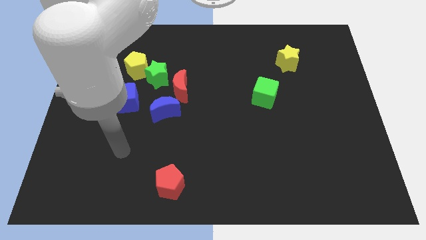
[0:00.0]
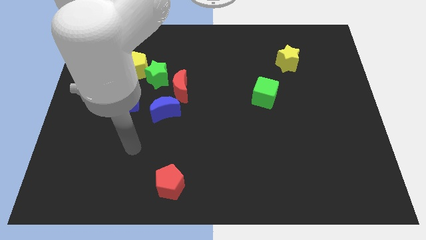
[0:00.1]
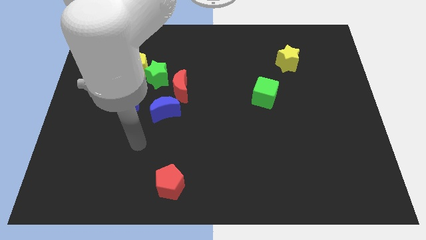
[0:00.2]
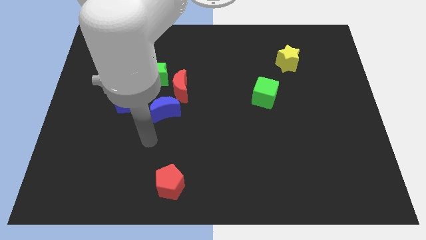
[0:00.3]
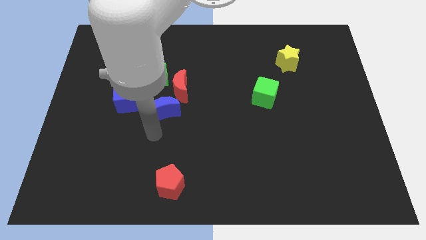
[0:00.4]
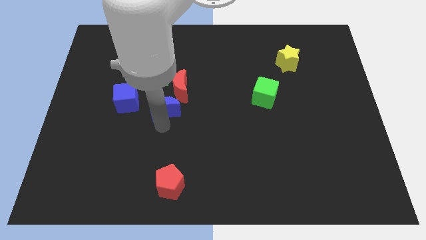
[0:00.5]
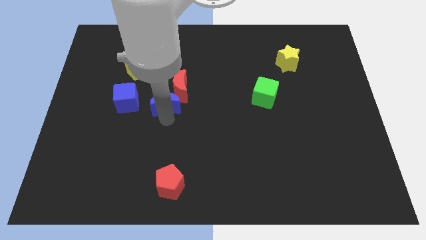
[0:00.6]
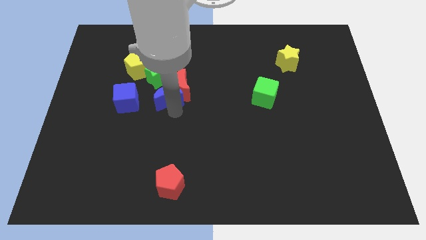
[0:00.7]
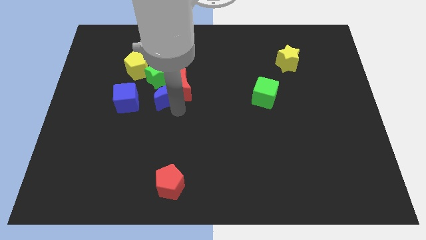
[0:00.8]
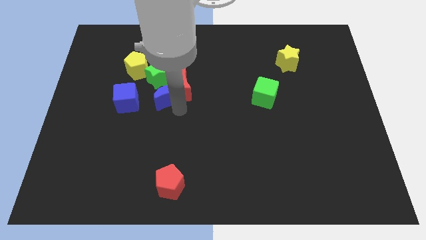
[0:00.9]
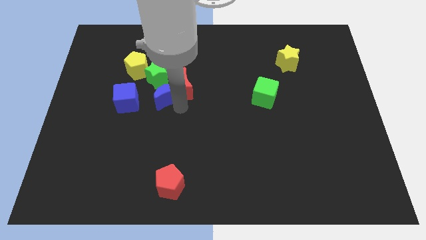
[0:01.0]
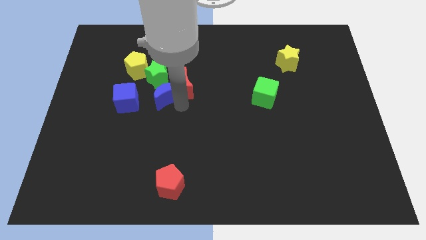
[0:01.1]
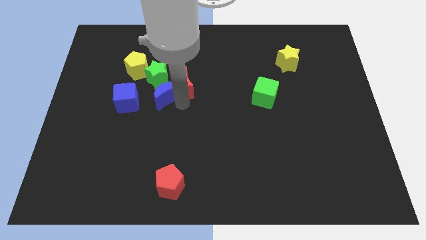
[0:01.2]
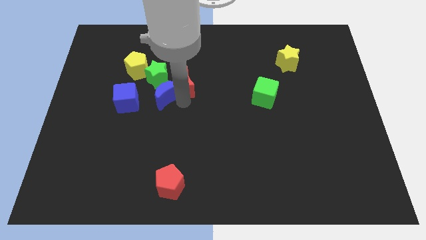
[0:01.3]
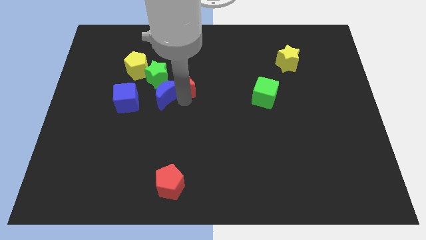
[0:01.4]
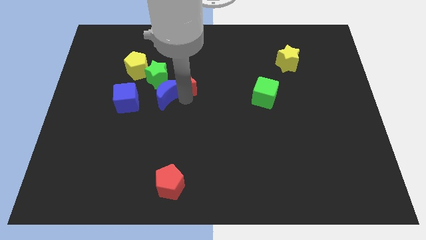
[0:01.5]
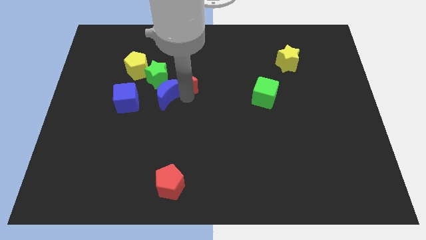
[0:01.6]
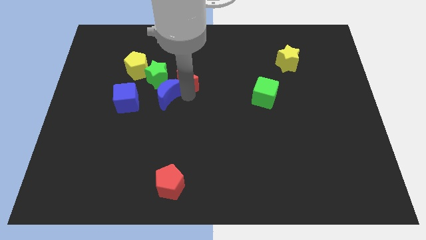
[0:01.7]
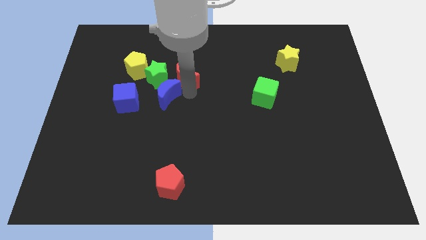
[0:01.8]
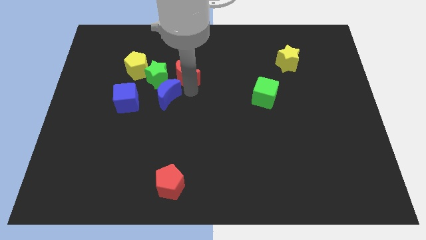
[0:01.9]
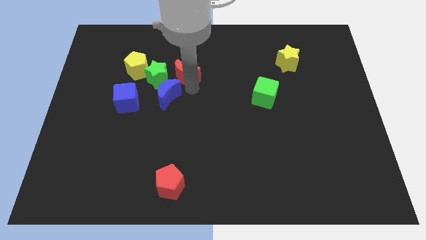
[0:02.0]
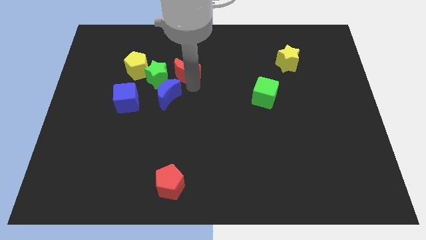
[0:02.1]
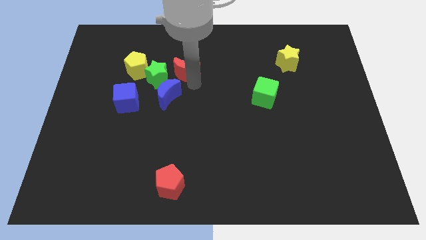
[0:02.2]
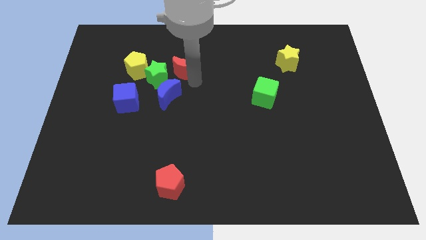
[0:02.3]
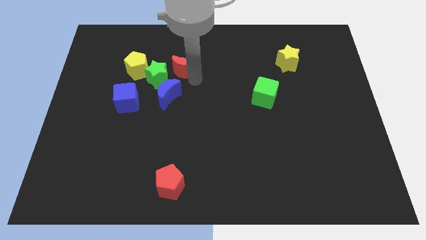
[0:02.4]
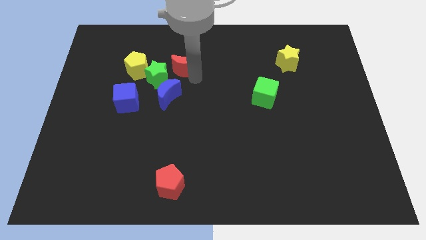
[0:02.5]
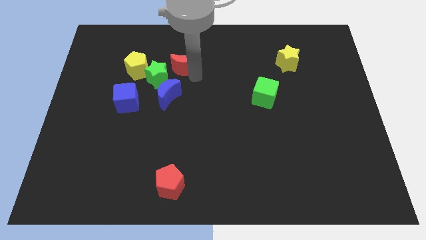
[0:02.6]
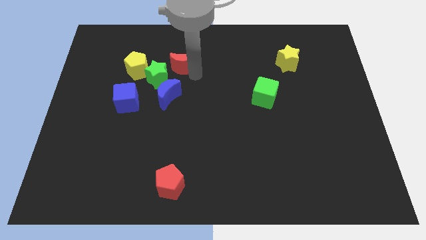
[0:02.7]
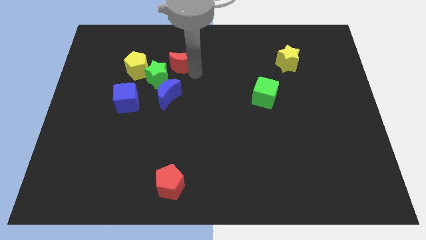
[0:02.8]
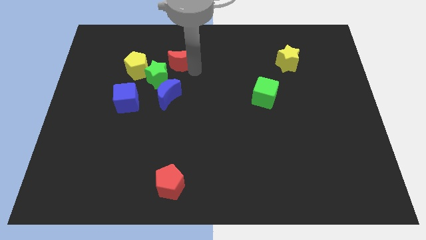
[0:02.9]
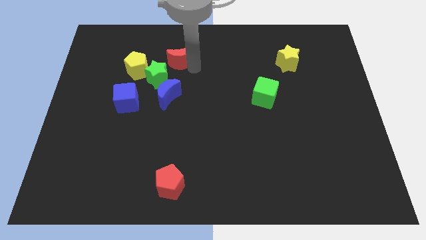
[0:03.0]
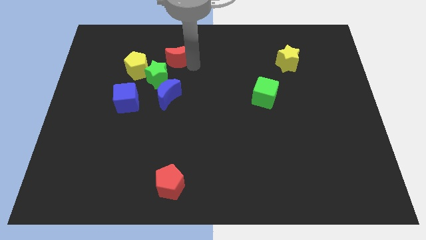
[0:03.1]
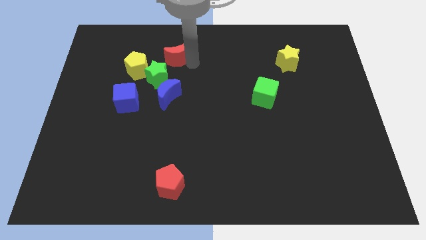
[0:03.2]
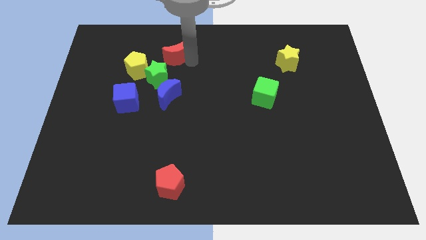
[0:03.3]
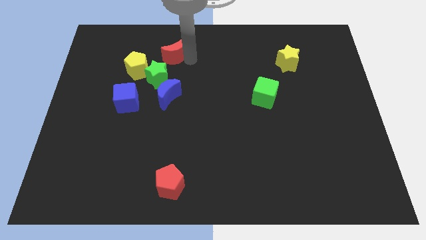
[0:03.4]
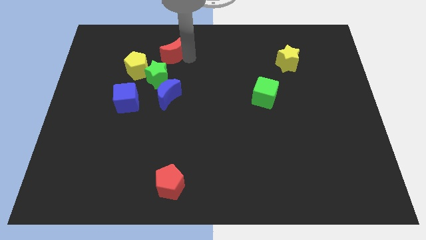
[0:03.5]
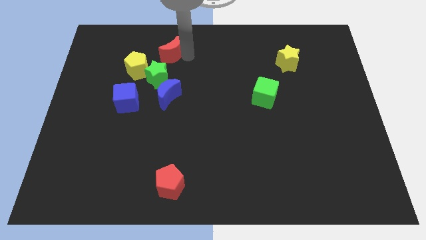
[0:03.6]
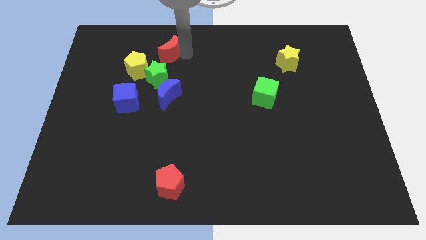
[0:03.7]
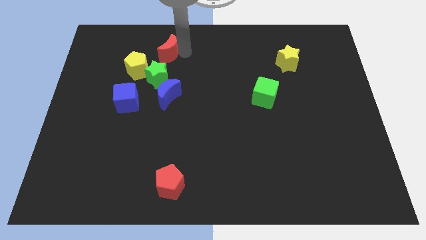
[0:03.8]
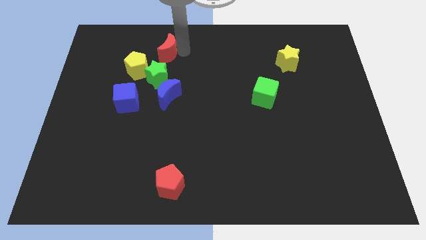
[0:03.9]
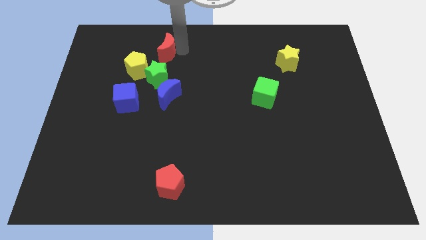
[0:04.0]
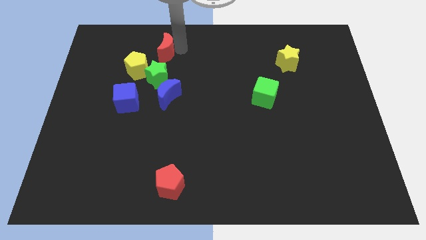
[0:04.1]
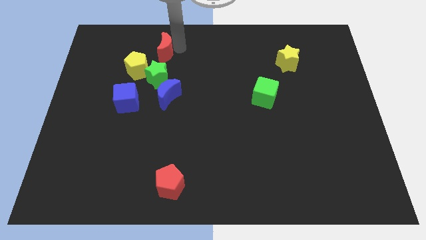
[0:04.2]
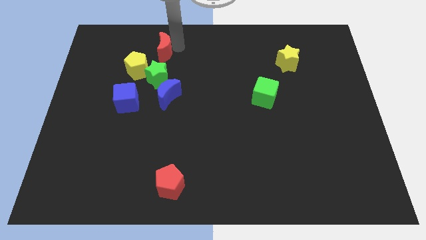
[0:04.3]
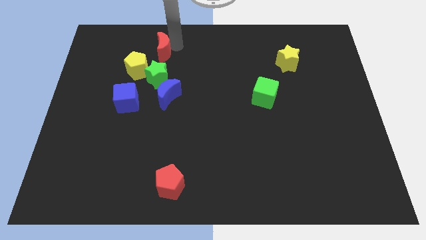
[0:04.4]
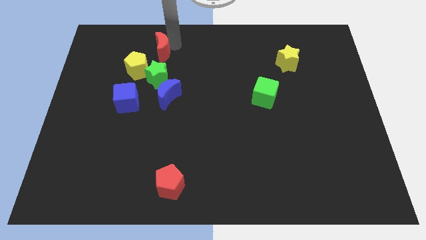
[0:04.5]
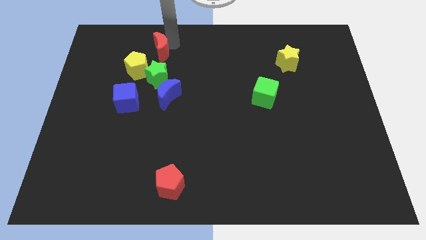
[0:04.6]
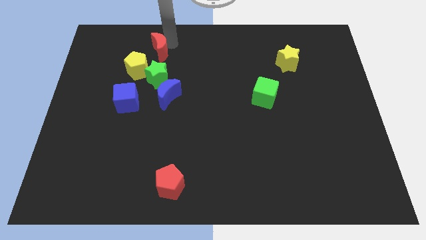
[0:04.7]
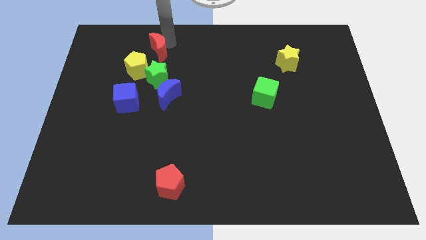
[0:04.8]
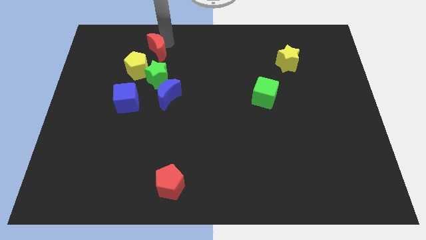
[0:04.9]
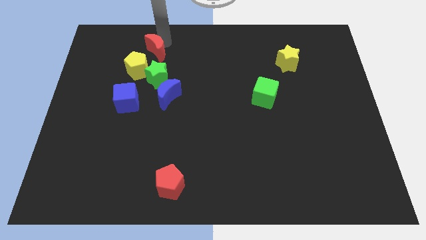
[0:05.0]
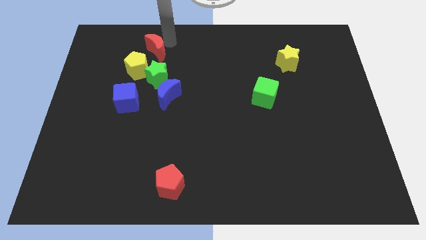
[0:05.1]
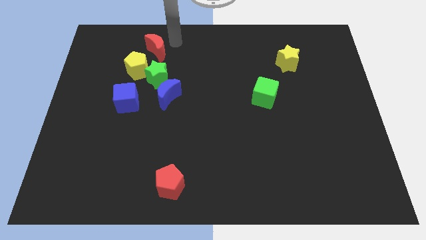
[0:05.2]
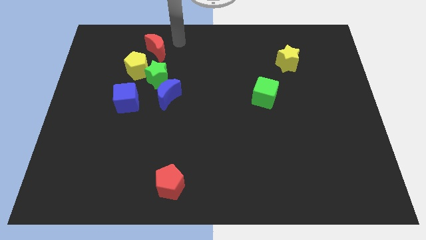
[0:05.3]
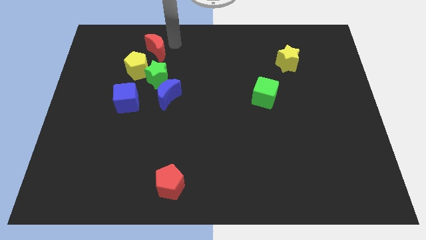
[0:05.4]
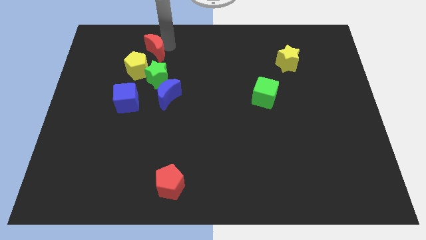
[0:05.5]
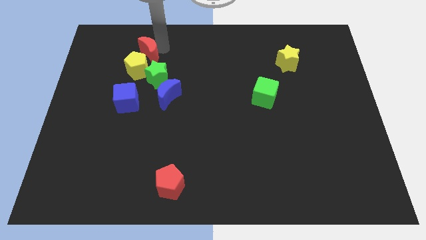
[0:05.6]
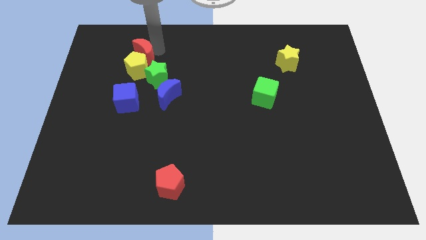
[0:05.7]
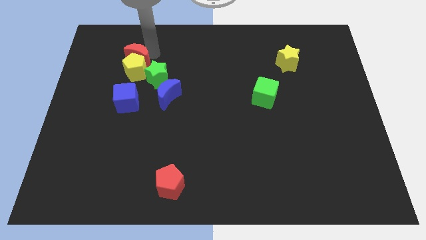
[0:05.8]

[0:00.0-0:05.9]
push the red moon to the top left of the yellow pentagon

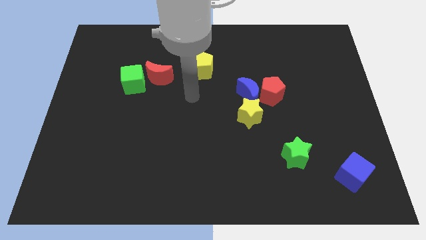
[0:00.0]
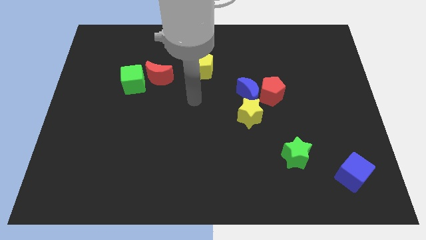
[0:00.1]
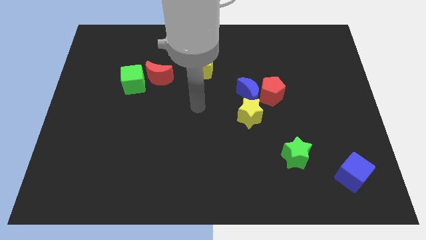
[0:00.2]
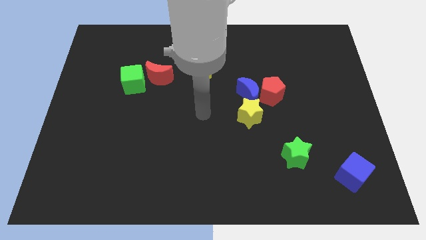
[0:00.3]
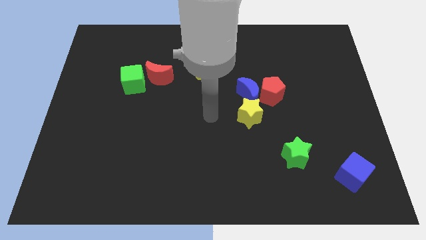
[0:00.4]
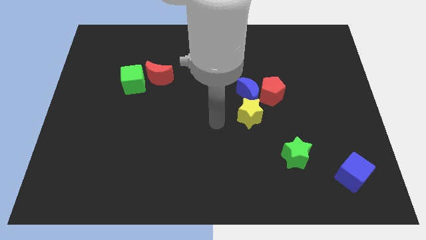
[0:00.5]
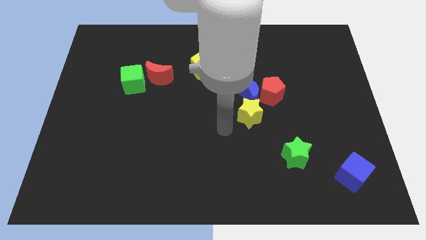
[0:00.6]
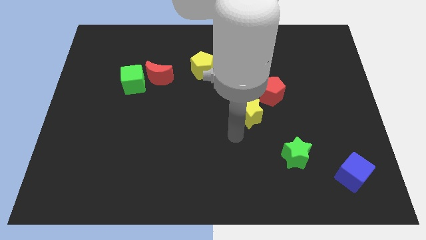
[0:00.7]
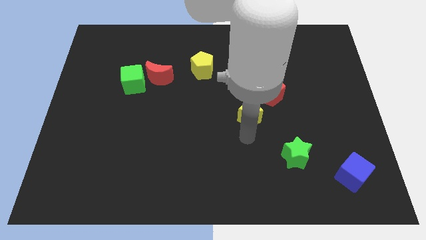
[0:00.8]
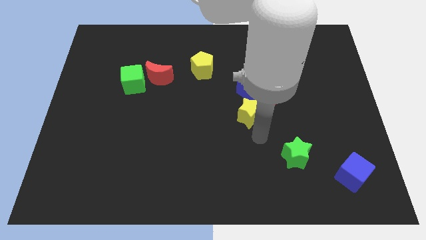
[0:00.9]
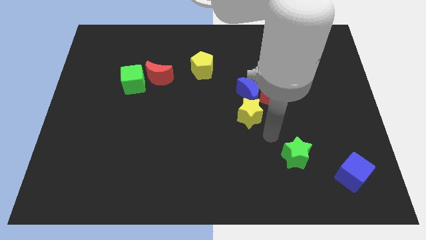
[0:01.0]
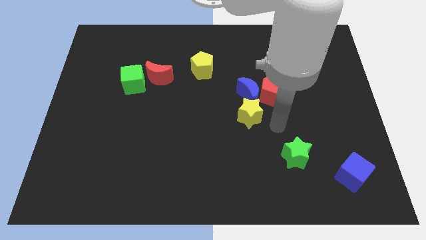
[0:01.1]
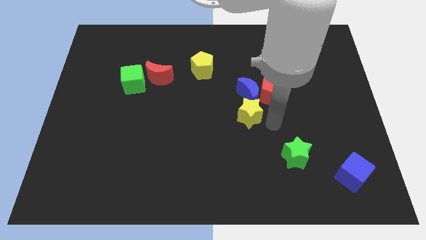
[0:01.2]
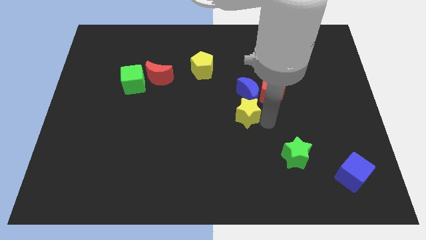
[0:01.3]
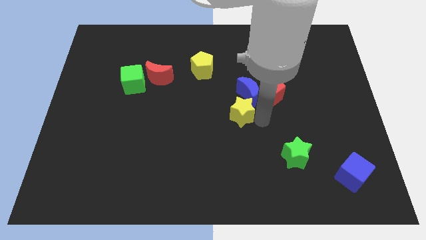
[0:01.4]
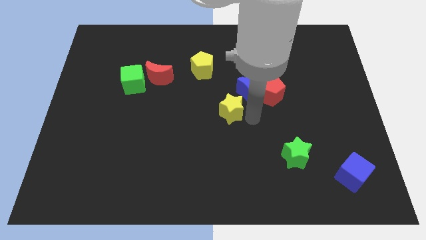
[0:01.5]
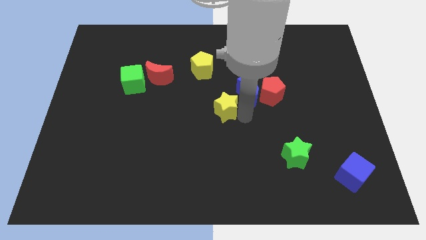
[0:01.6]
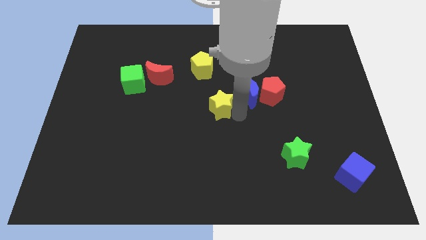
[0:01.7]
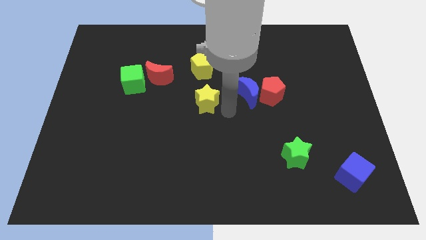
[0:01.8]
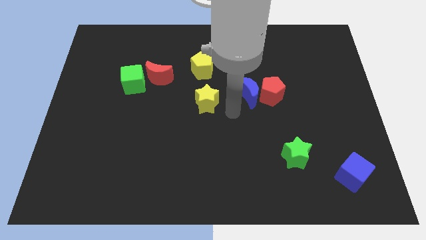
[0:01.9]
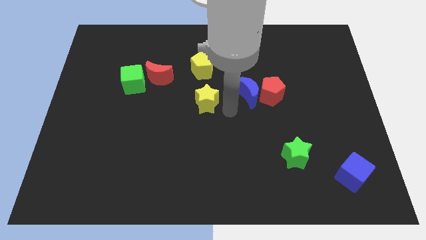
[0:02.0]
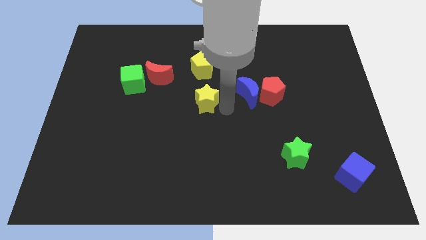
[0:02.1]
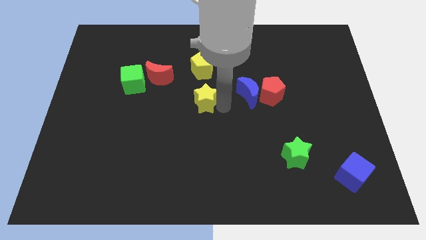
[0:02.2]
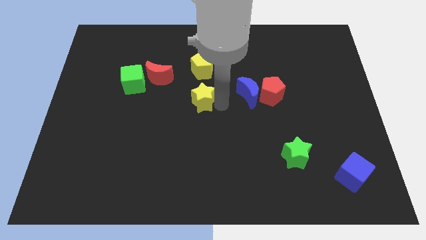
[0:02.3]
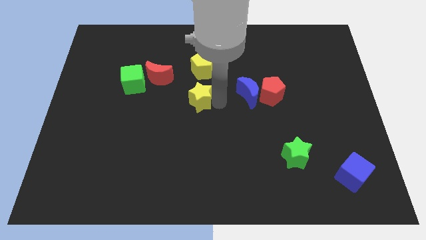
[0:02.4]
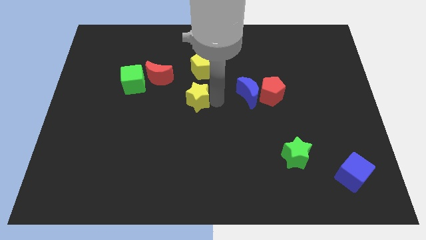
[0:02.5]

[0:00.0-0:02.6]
move the yellow star to the bottom right side of the red moon
